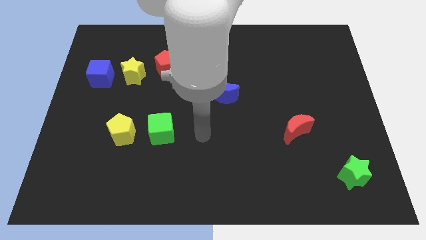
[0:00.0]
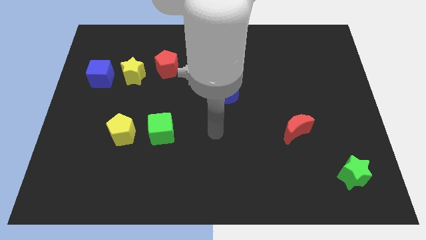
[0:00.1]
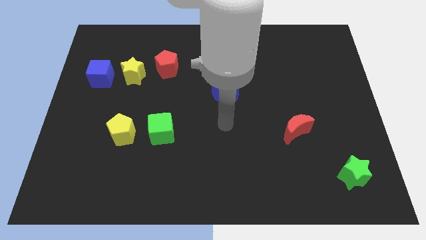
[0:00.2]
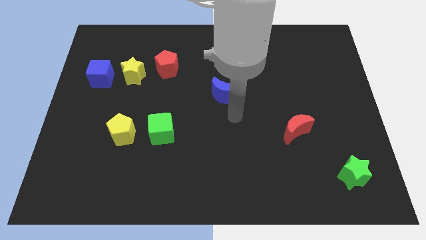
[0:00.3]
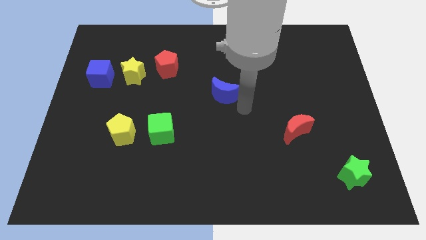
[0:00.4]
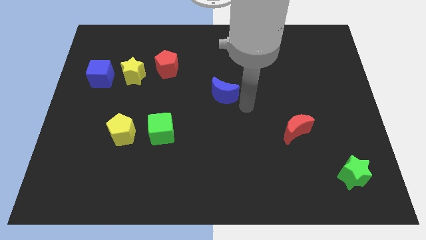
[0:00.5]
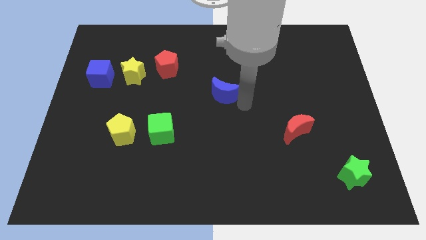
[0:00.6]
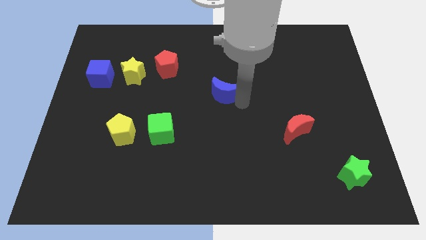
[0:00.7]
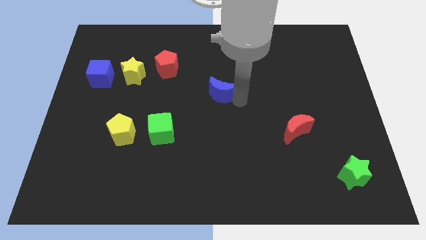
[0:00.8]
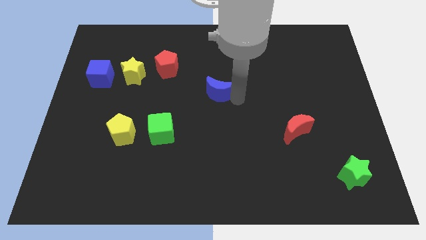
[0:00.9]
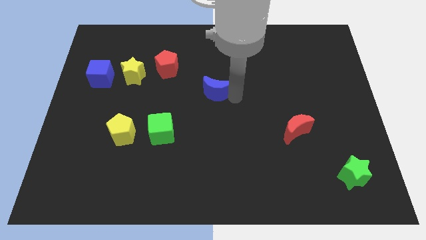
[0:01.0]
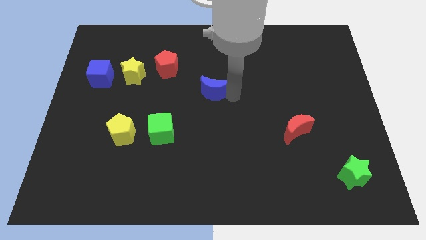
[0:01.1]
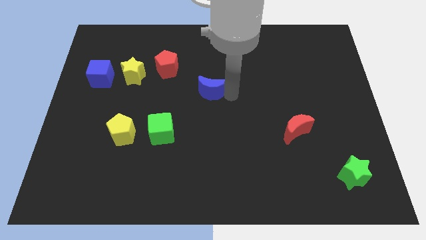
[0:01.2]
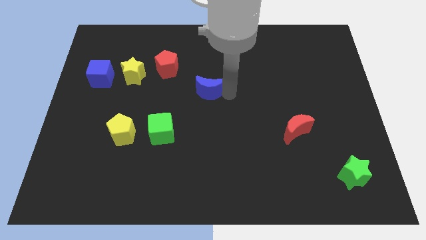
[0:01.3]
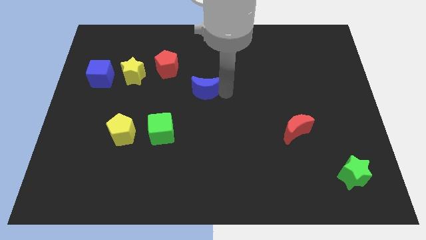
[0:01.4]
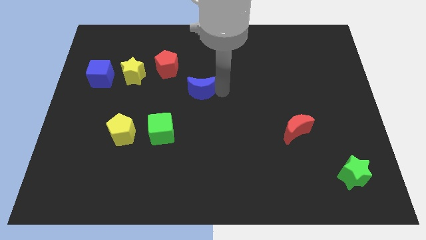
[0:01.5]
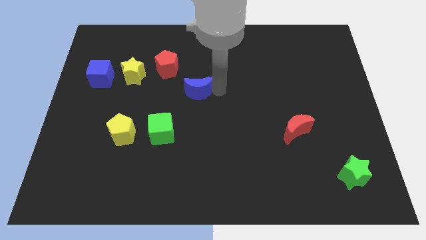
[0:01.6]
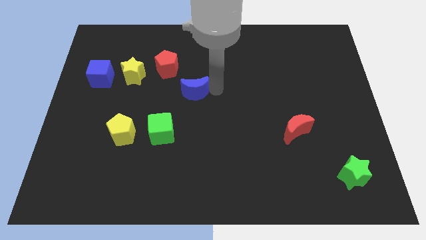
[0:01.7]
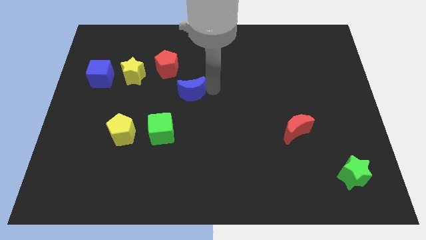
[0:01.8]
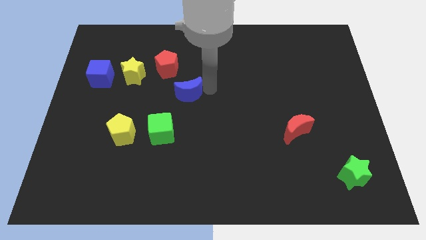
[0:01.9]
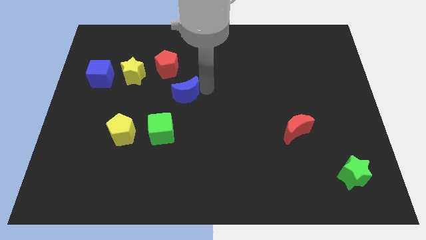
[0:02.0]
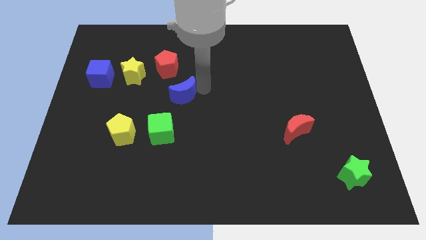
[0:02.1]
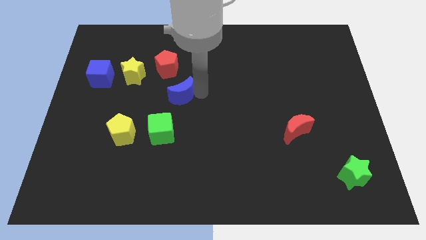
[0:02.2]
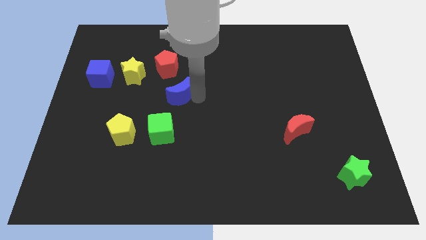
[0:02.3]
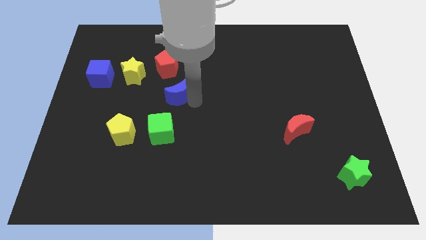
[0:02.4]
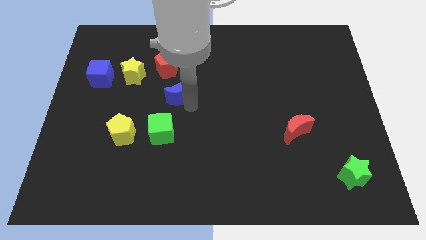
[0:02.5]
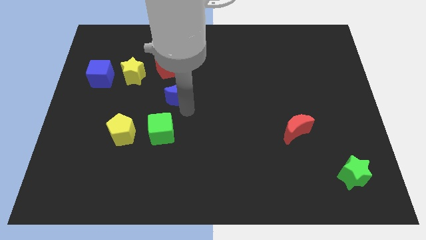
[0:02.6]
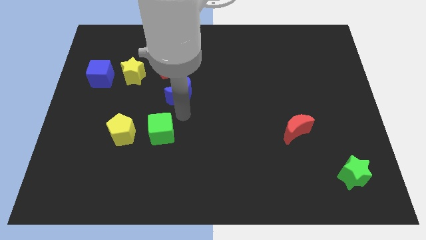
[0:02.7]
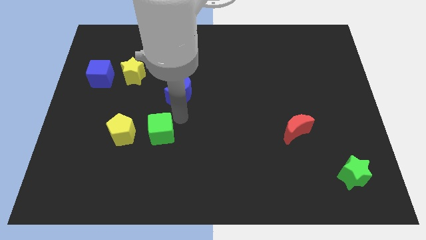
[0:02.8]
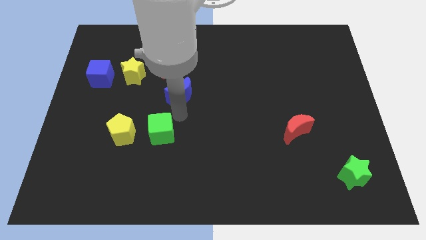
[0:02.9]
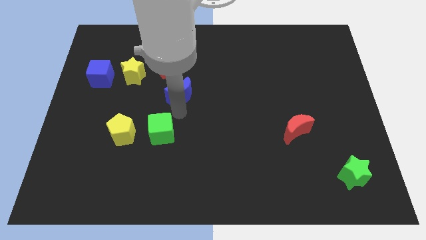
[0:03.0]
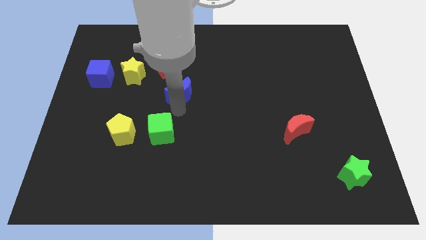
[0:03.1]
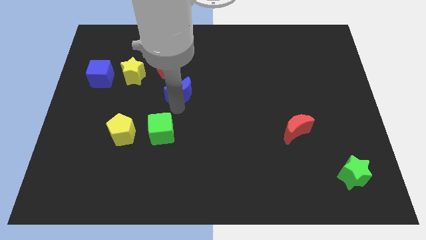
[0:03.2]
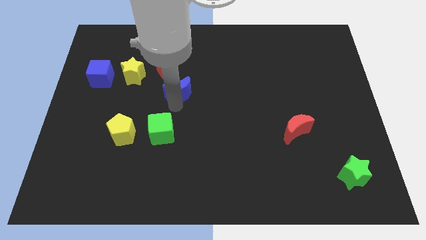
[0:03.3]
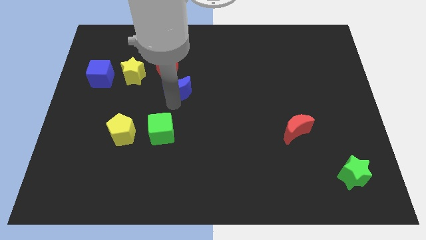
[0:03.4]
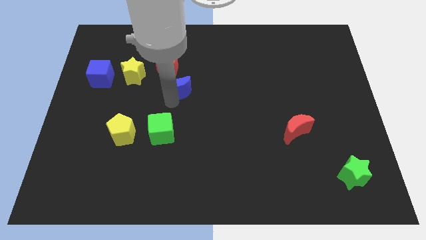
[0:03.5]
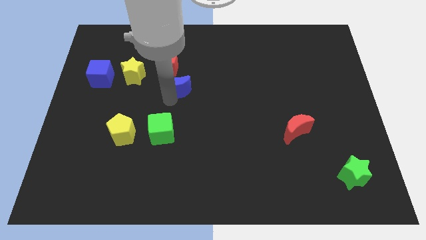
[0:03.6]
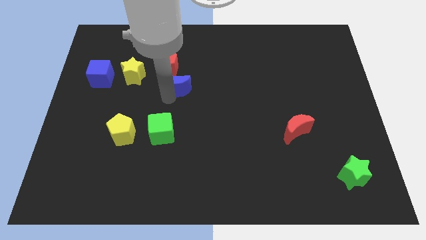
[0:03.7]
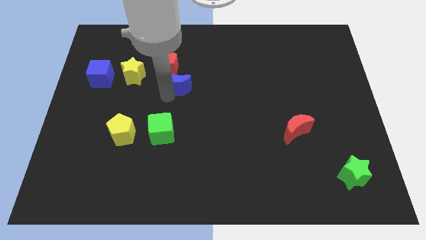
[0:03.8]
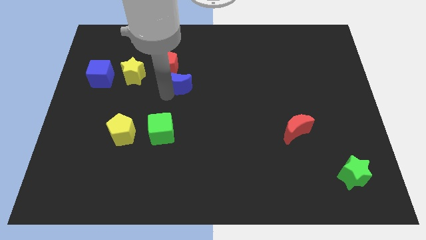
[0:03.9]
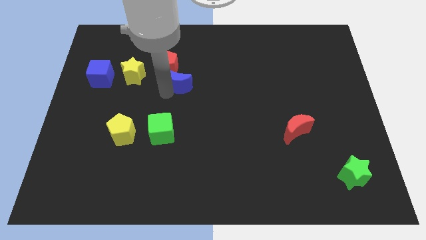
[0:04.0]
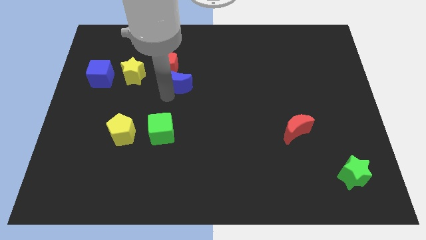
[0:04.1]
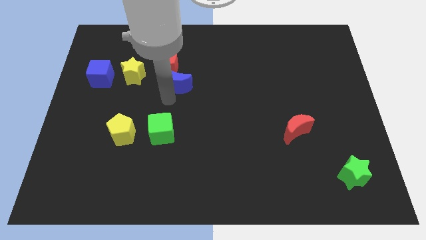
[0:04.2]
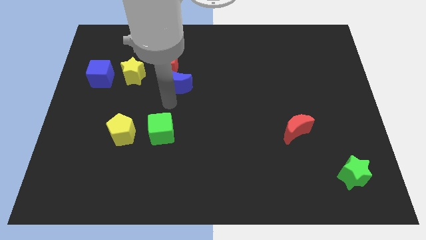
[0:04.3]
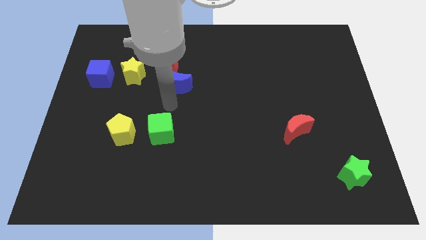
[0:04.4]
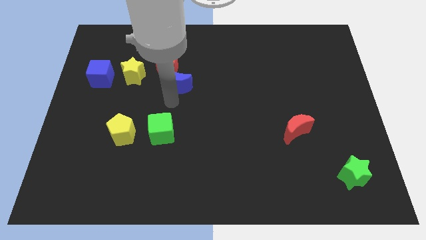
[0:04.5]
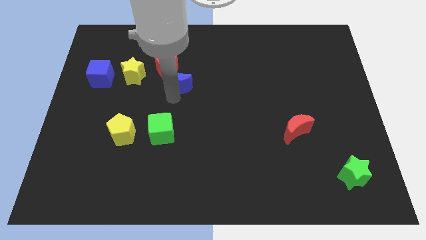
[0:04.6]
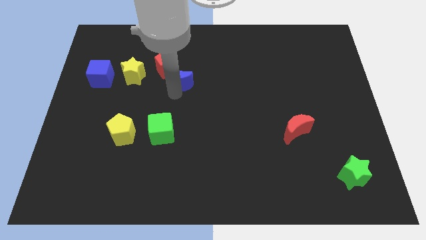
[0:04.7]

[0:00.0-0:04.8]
slide the blue moon close to the red pentagon

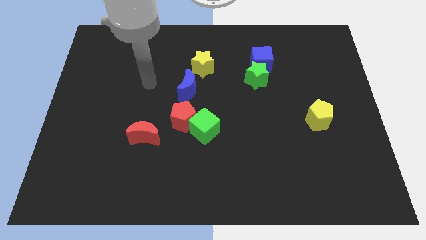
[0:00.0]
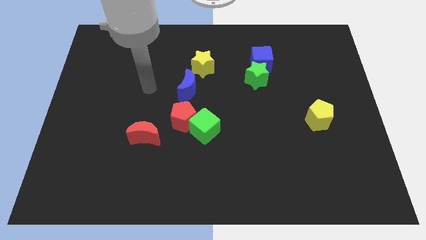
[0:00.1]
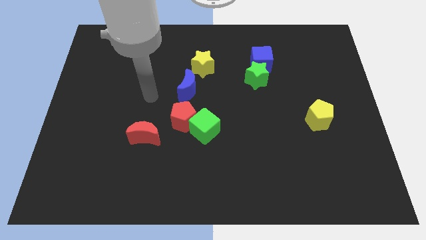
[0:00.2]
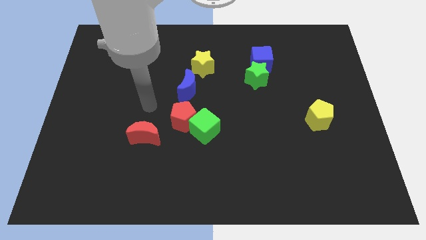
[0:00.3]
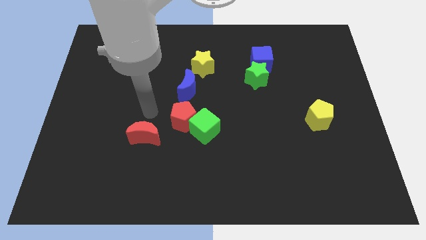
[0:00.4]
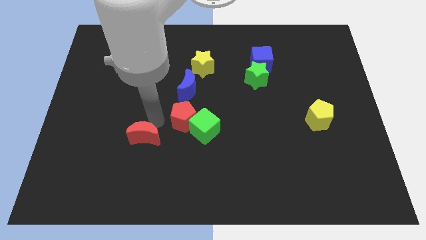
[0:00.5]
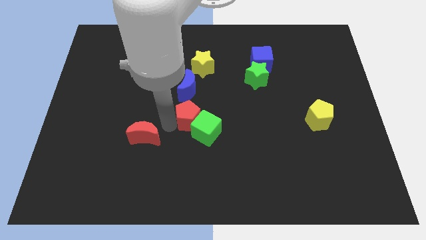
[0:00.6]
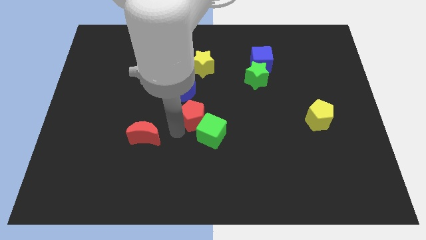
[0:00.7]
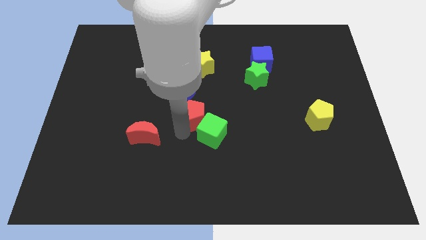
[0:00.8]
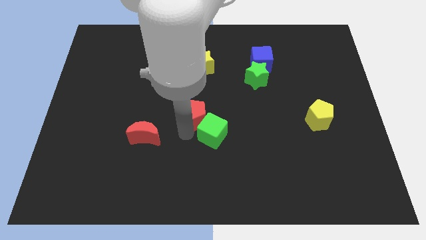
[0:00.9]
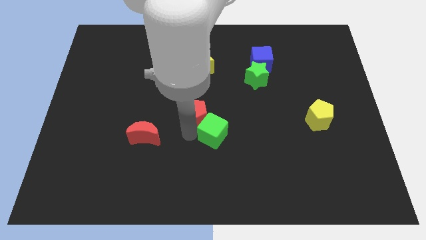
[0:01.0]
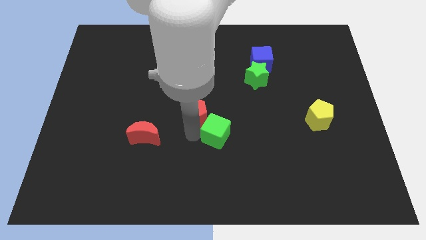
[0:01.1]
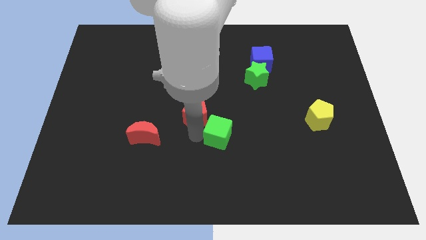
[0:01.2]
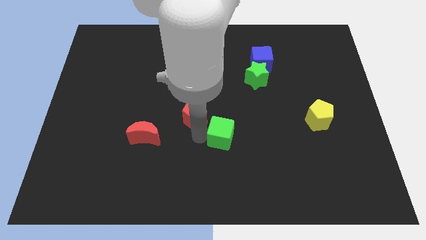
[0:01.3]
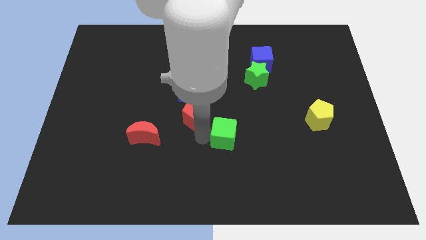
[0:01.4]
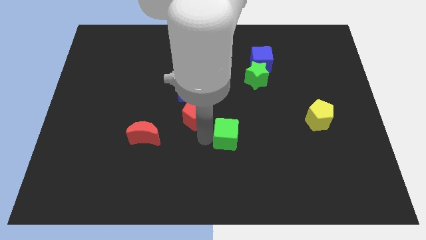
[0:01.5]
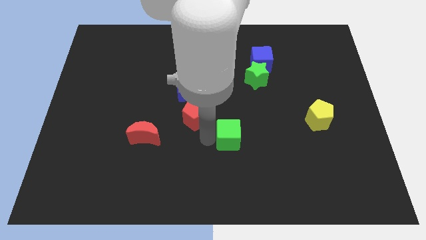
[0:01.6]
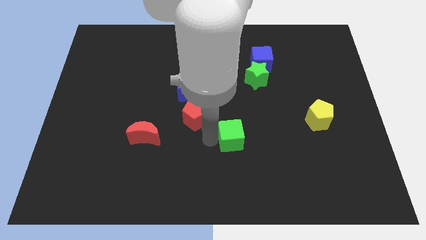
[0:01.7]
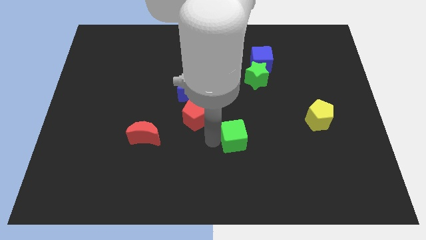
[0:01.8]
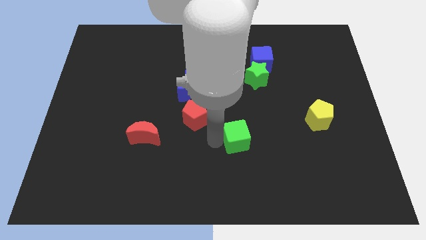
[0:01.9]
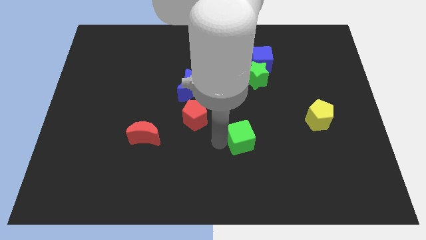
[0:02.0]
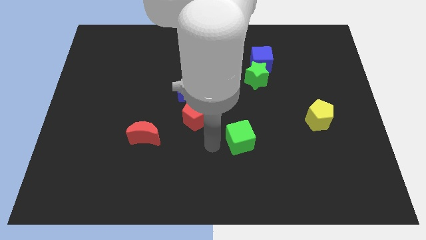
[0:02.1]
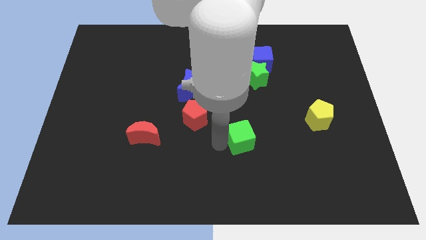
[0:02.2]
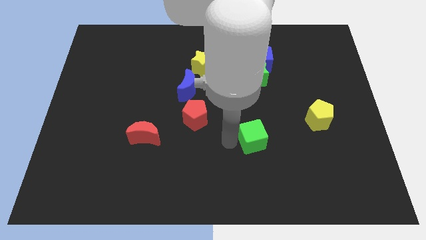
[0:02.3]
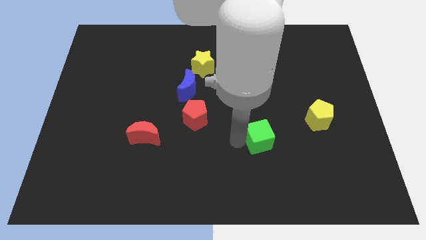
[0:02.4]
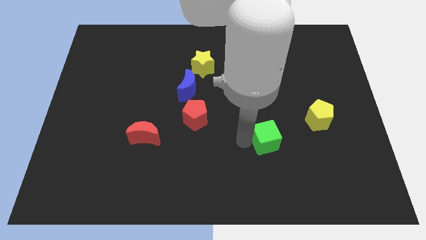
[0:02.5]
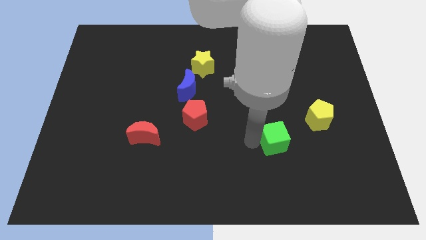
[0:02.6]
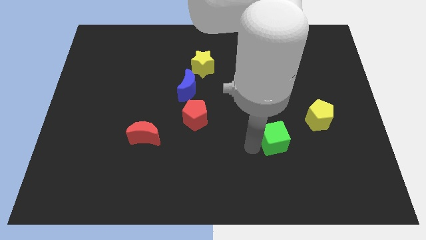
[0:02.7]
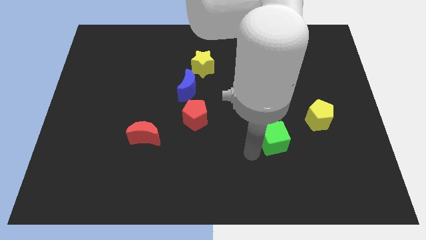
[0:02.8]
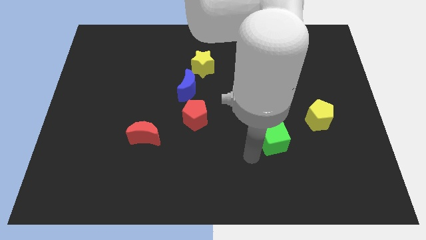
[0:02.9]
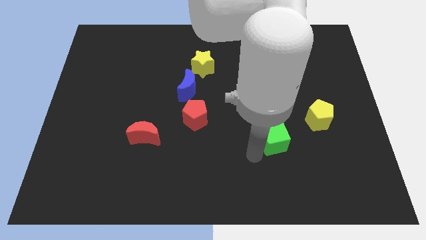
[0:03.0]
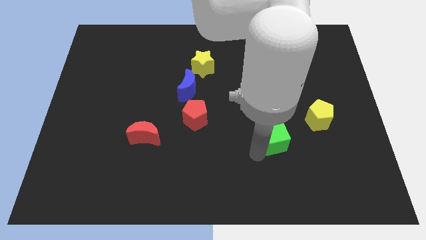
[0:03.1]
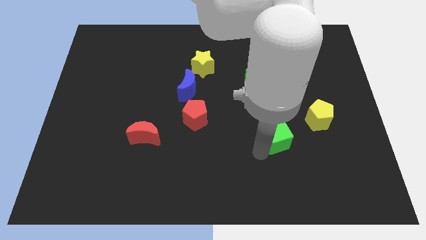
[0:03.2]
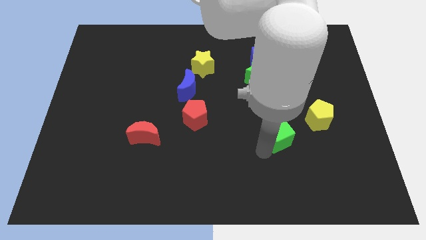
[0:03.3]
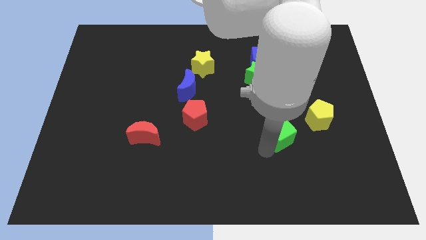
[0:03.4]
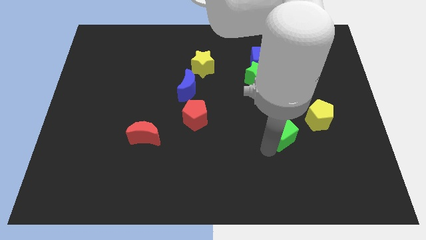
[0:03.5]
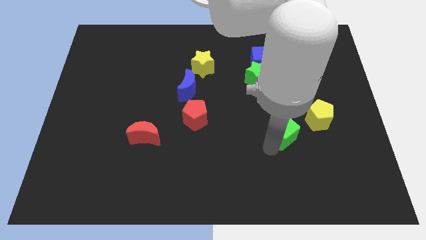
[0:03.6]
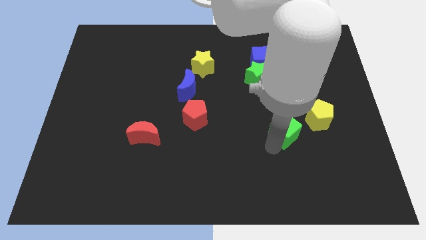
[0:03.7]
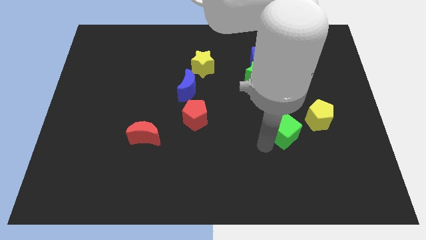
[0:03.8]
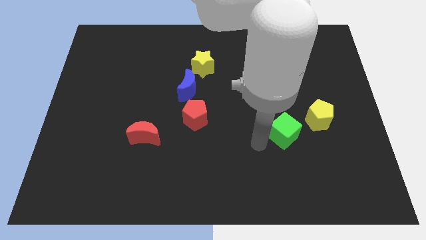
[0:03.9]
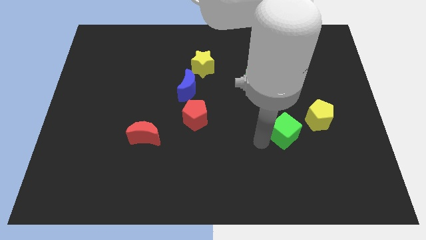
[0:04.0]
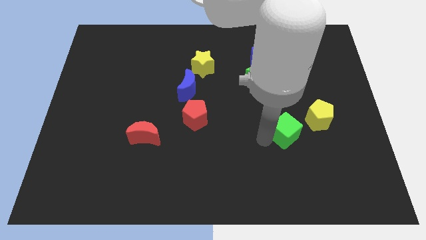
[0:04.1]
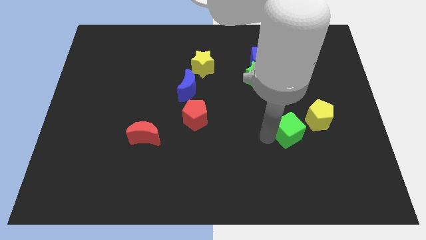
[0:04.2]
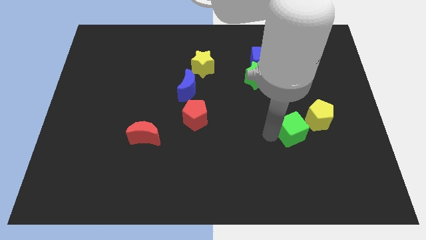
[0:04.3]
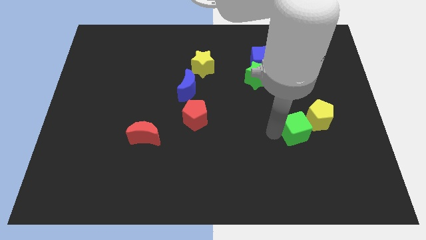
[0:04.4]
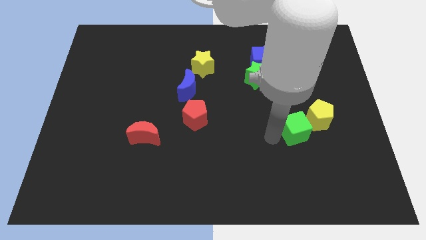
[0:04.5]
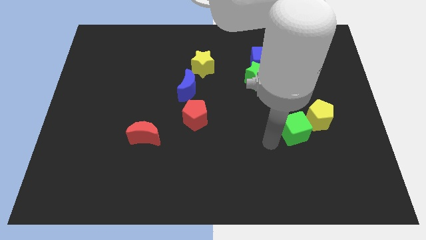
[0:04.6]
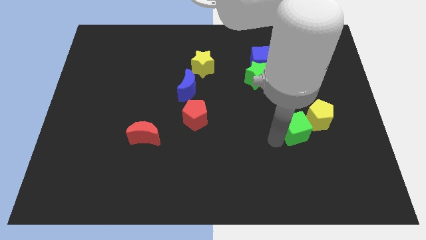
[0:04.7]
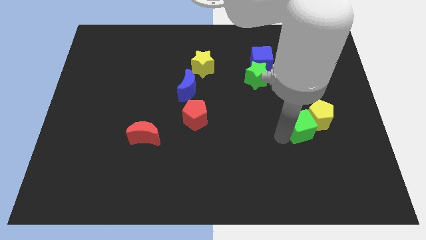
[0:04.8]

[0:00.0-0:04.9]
slide the green cube next to the yellow pentagon
